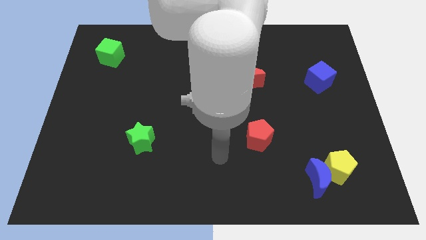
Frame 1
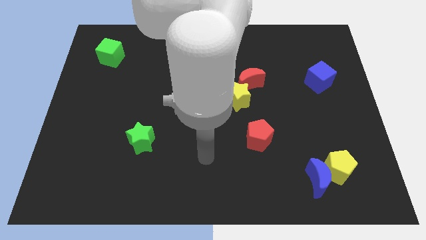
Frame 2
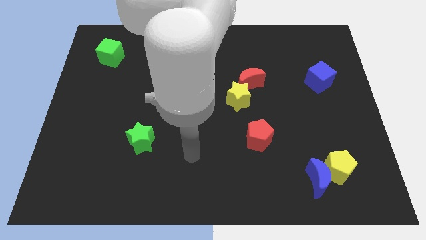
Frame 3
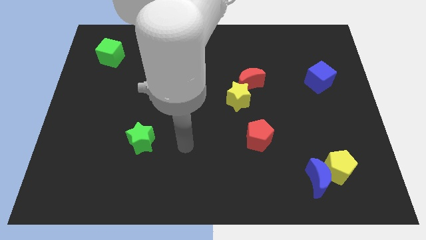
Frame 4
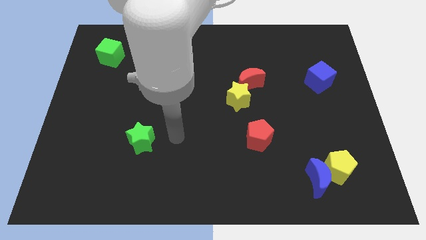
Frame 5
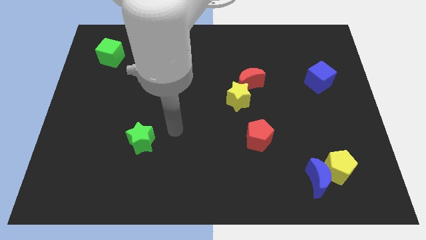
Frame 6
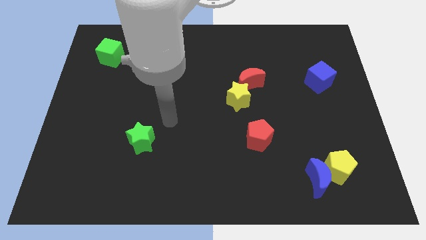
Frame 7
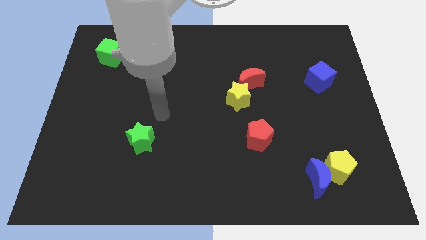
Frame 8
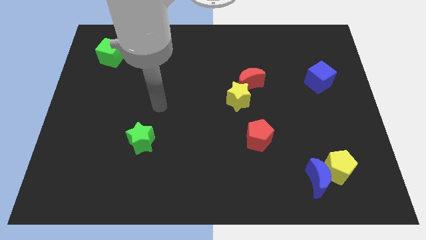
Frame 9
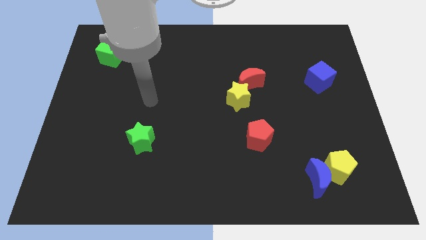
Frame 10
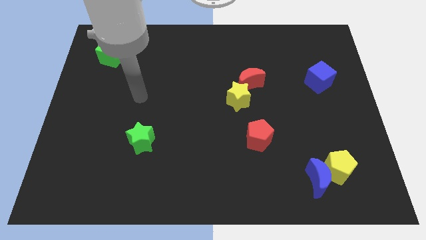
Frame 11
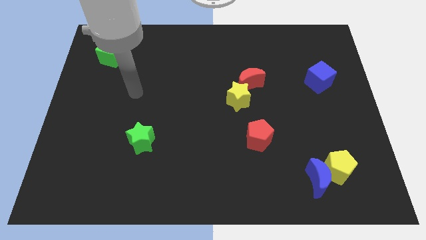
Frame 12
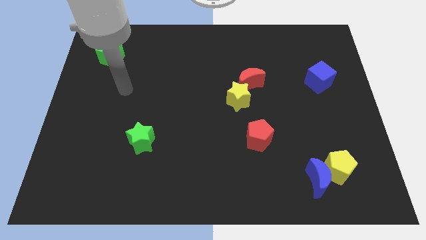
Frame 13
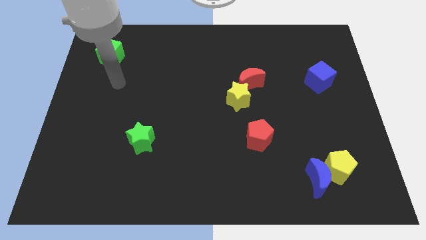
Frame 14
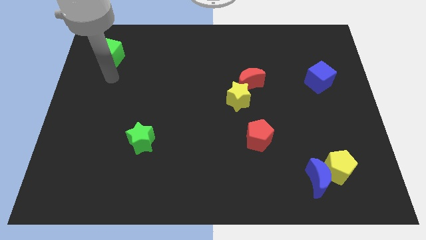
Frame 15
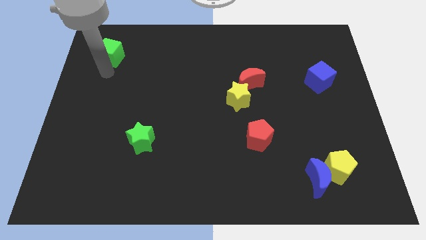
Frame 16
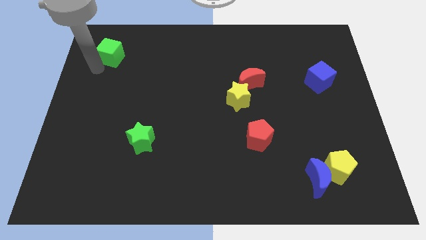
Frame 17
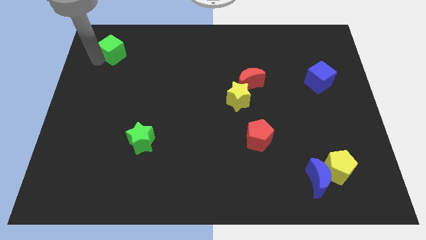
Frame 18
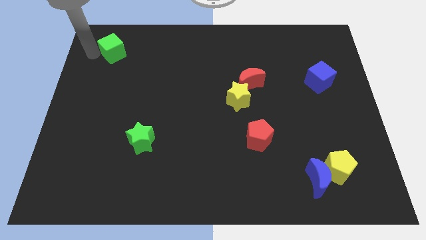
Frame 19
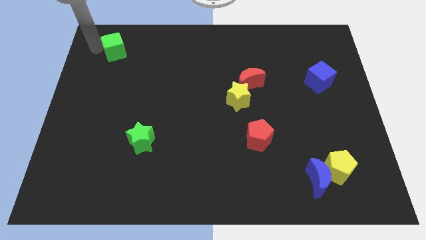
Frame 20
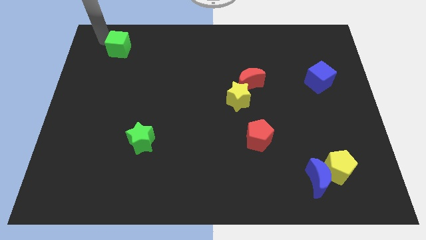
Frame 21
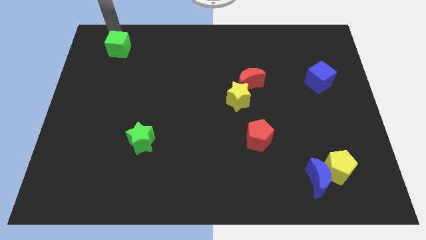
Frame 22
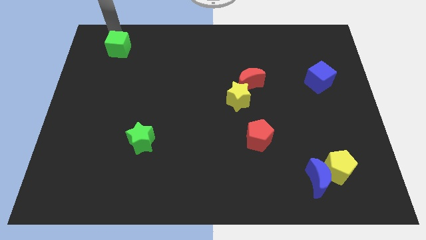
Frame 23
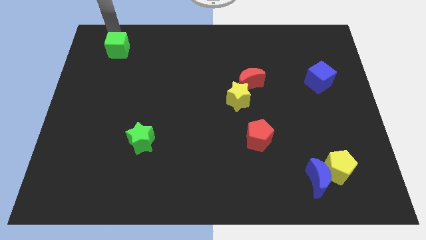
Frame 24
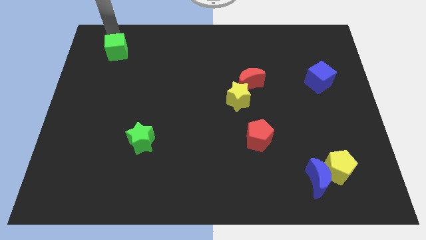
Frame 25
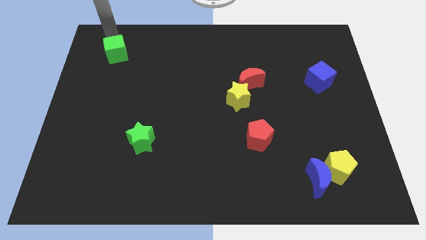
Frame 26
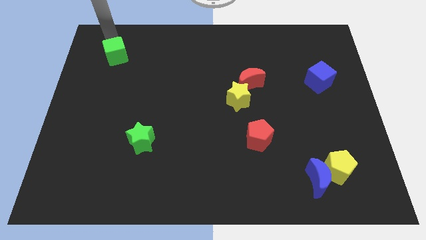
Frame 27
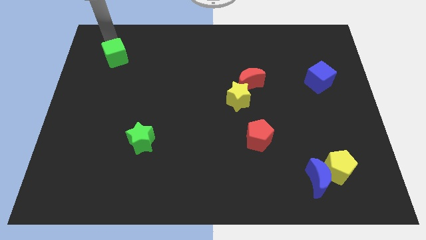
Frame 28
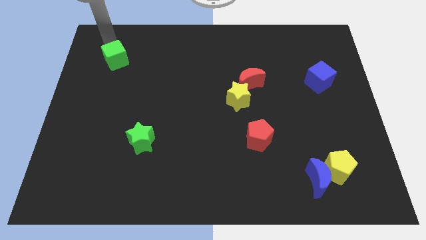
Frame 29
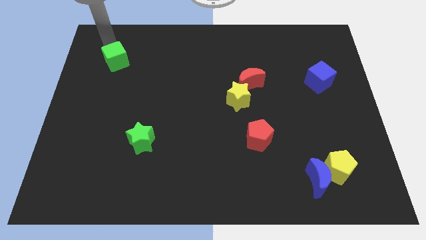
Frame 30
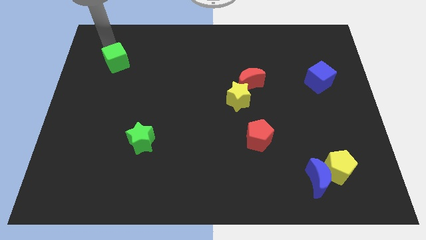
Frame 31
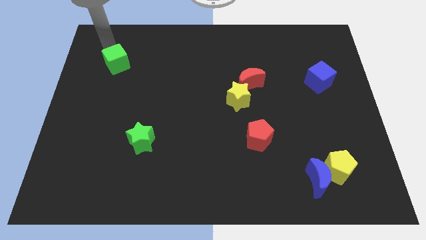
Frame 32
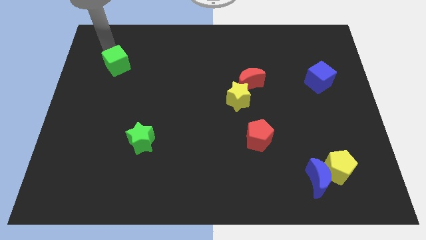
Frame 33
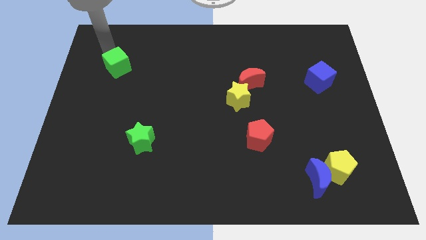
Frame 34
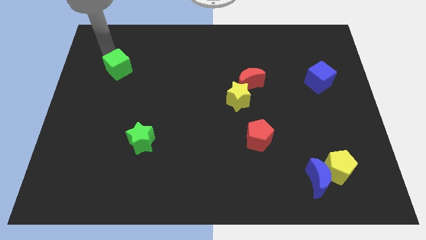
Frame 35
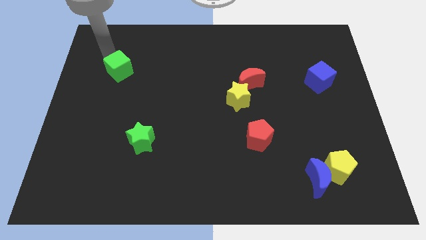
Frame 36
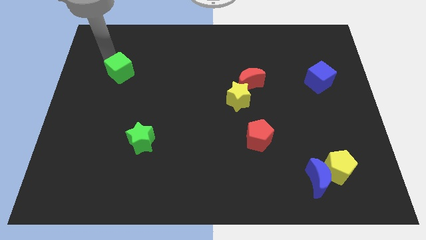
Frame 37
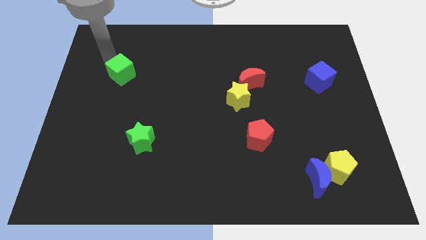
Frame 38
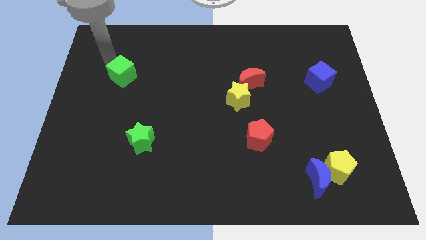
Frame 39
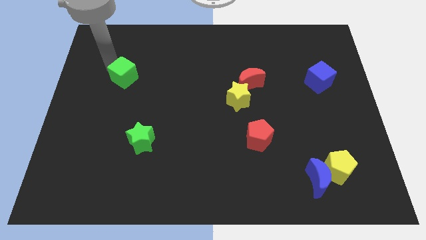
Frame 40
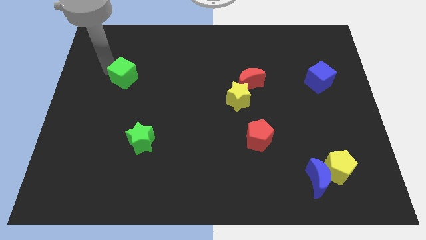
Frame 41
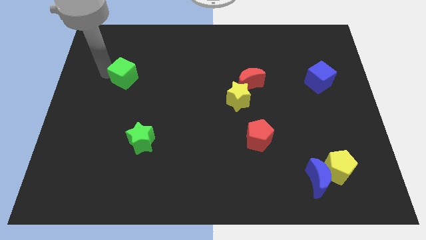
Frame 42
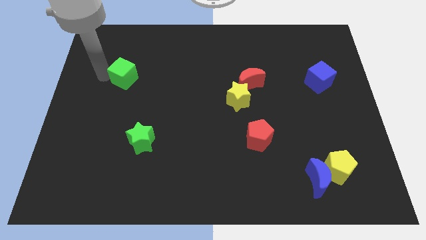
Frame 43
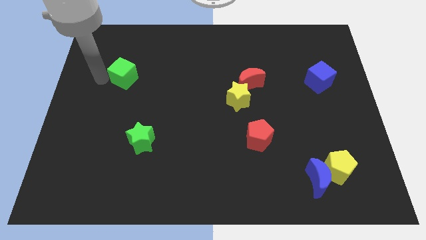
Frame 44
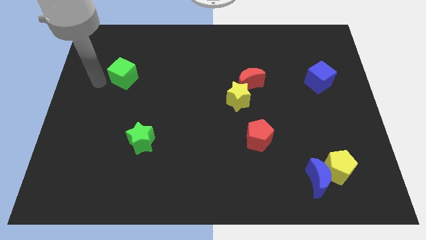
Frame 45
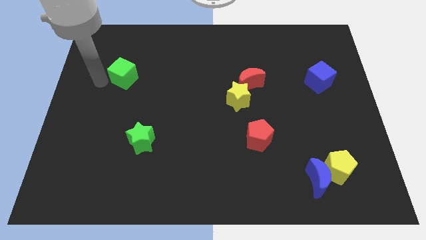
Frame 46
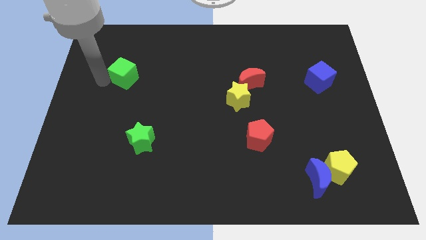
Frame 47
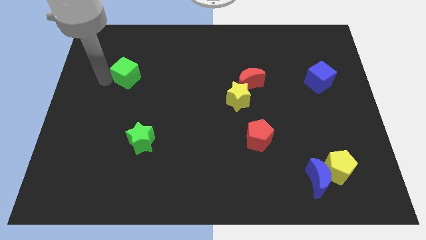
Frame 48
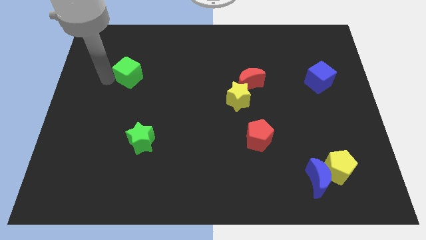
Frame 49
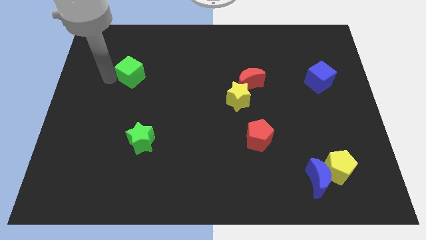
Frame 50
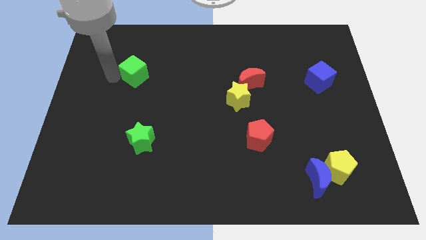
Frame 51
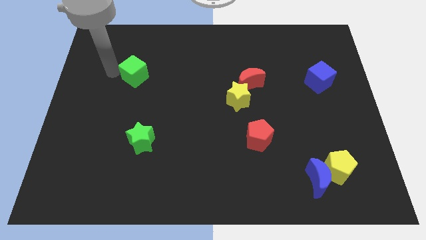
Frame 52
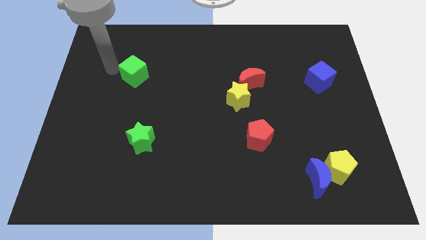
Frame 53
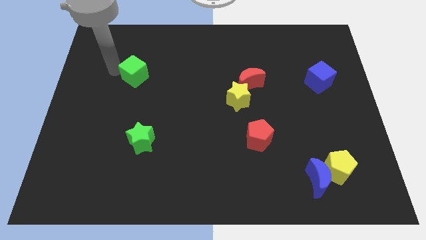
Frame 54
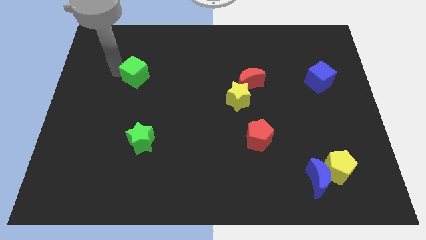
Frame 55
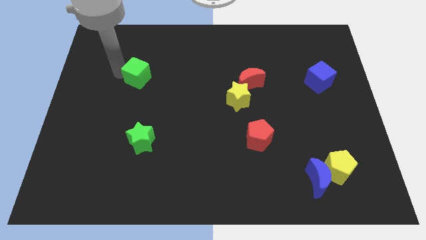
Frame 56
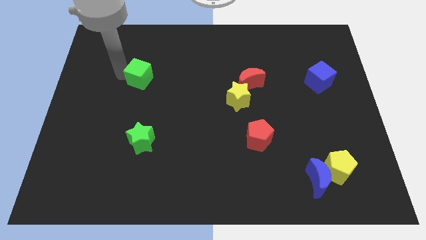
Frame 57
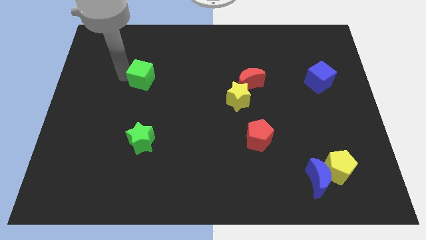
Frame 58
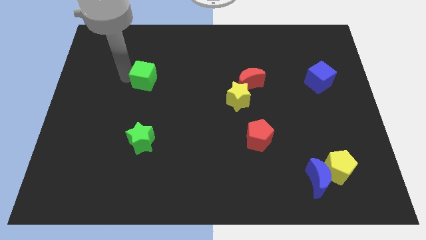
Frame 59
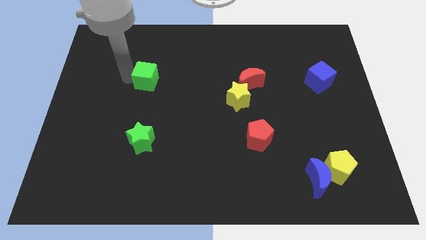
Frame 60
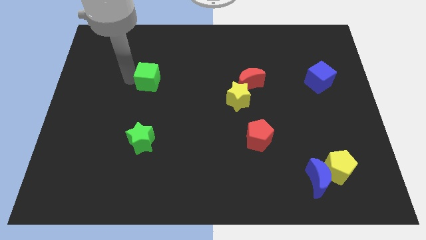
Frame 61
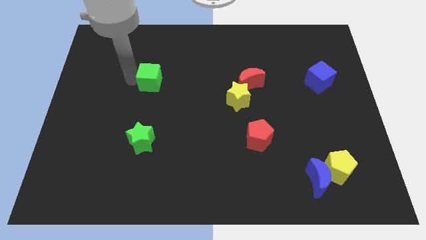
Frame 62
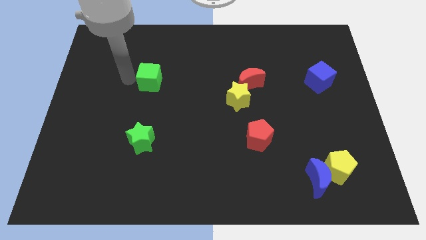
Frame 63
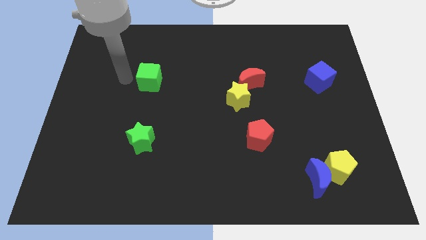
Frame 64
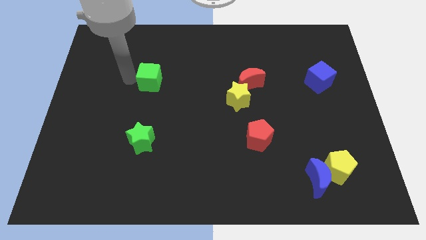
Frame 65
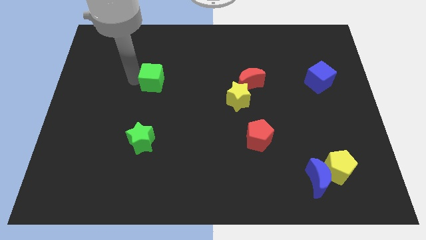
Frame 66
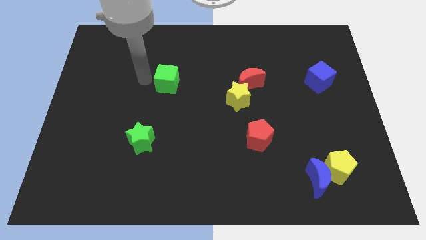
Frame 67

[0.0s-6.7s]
slide the green cube to the middle of the board
